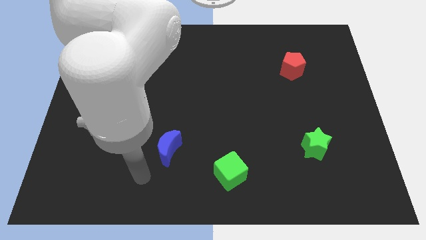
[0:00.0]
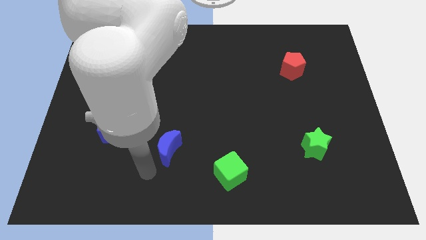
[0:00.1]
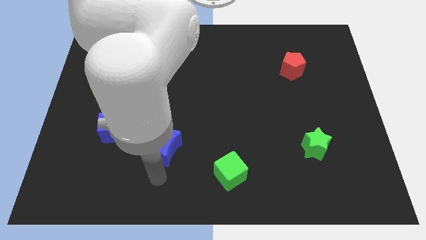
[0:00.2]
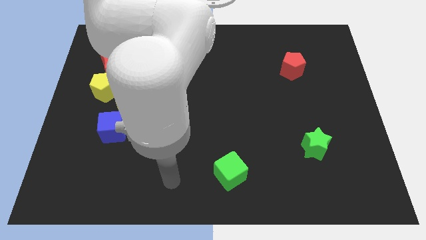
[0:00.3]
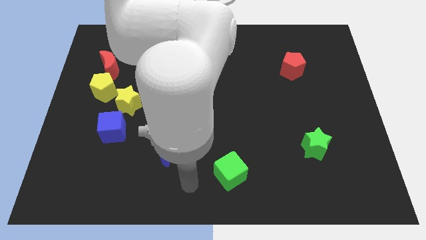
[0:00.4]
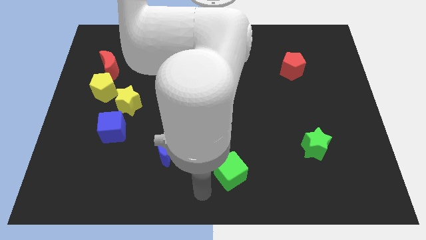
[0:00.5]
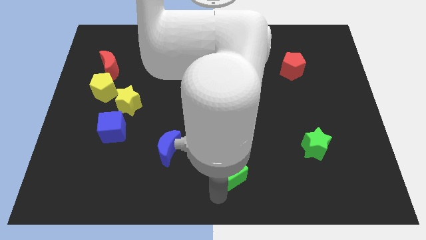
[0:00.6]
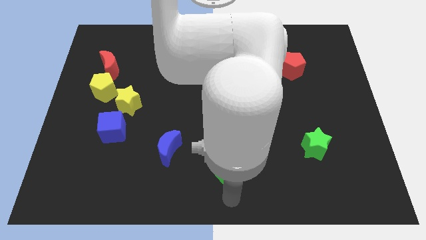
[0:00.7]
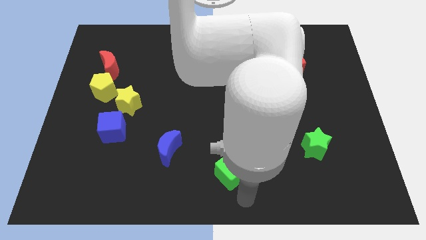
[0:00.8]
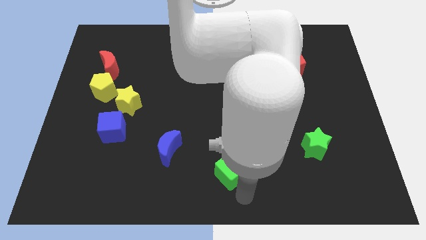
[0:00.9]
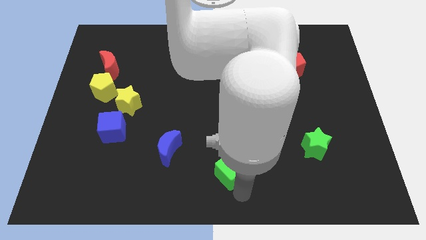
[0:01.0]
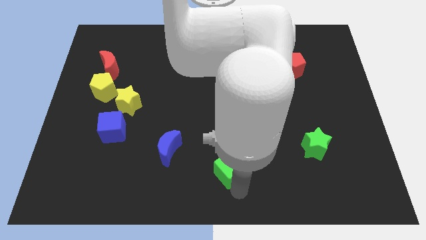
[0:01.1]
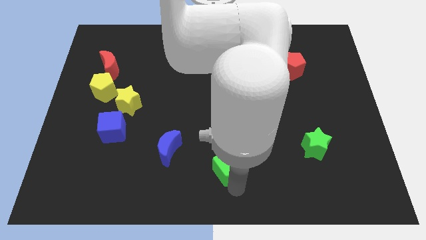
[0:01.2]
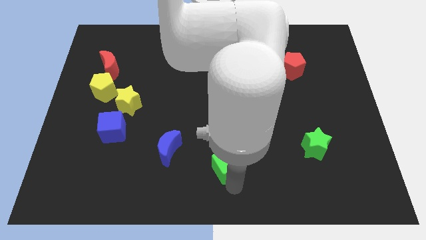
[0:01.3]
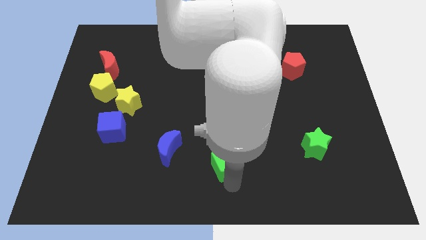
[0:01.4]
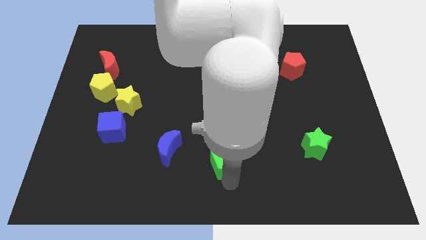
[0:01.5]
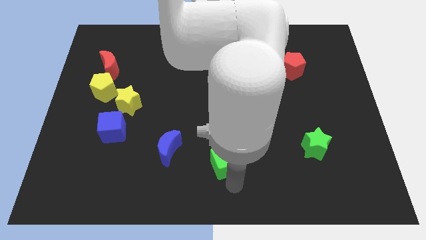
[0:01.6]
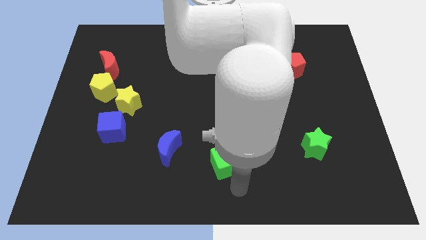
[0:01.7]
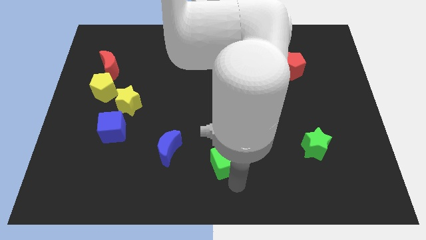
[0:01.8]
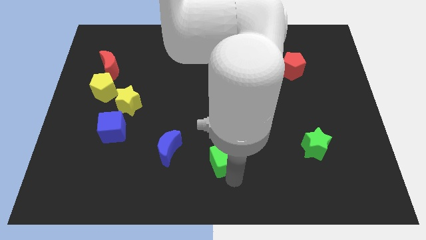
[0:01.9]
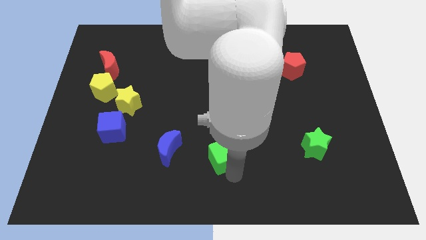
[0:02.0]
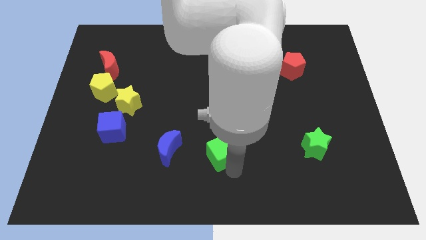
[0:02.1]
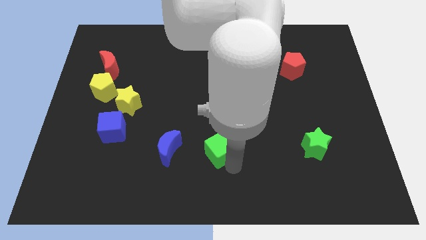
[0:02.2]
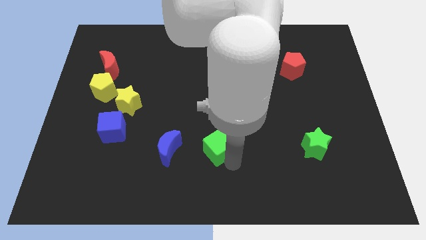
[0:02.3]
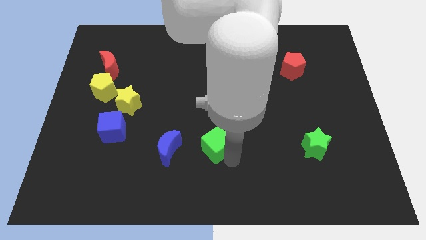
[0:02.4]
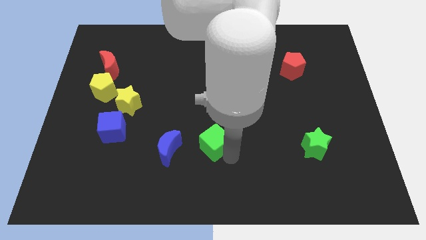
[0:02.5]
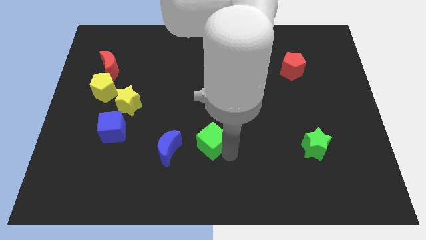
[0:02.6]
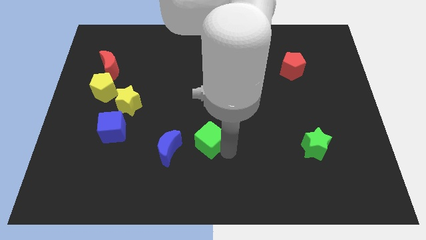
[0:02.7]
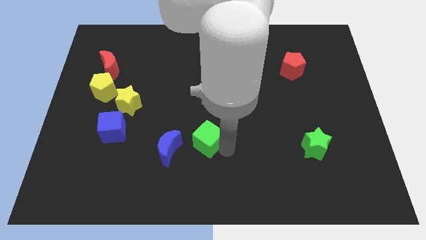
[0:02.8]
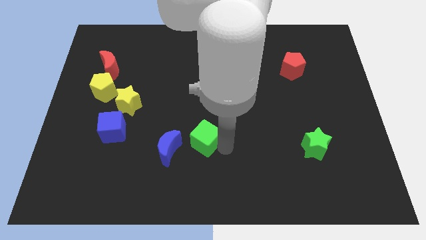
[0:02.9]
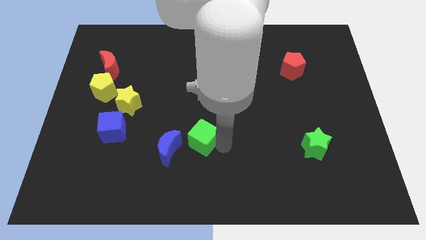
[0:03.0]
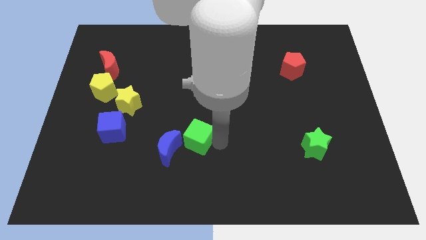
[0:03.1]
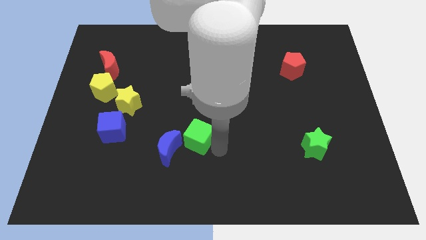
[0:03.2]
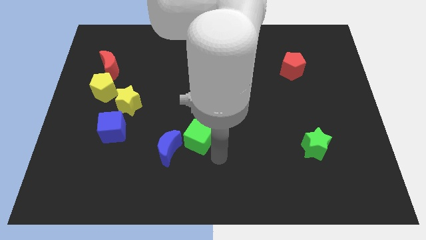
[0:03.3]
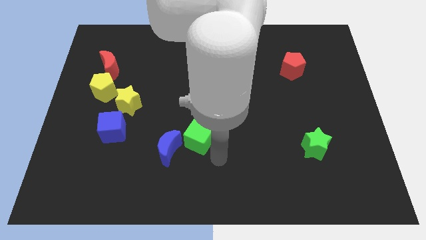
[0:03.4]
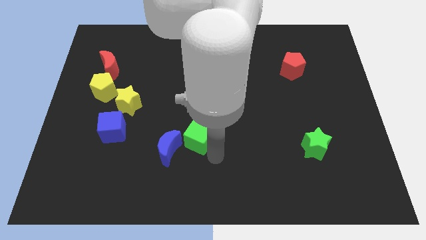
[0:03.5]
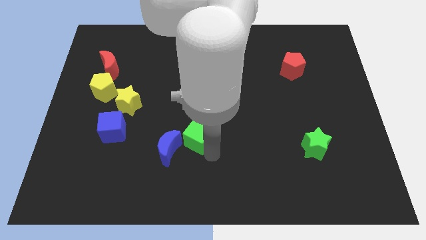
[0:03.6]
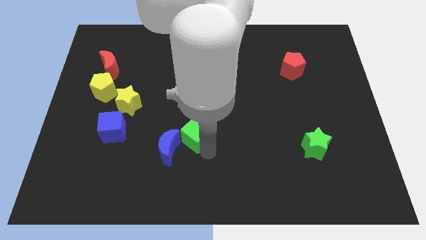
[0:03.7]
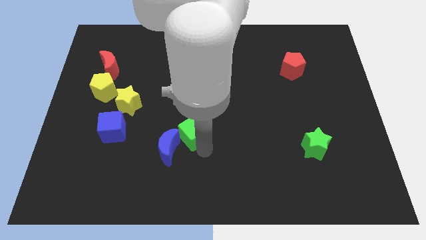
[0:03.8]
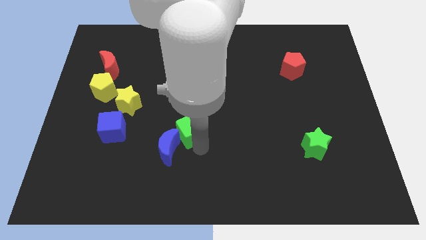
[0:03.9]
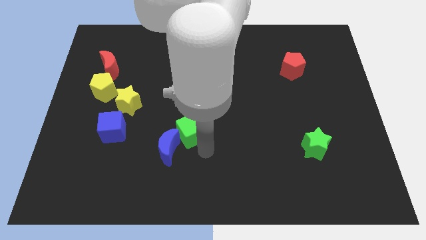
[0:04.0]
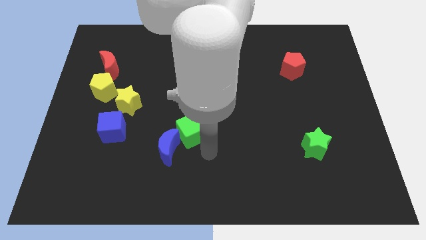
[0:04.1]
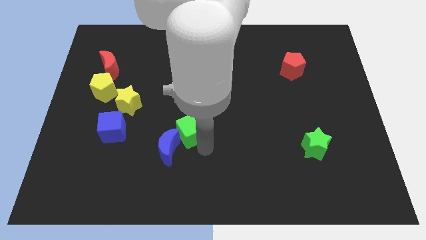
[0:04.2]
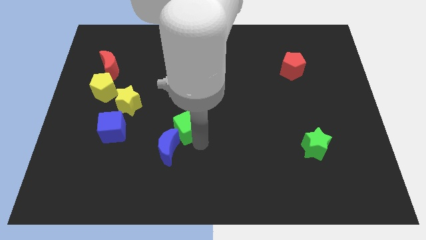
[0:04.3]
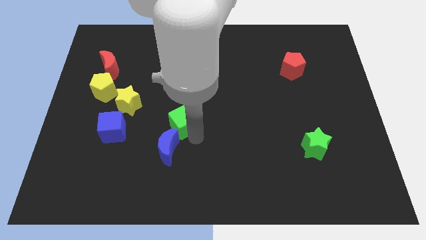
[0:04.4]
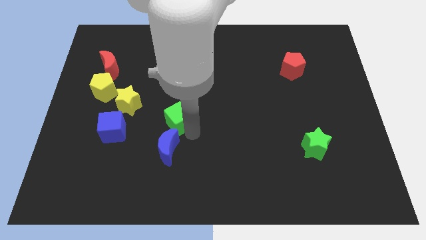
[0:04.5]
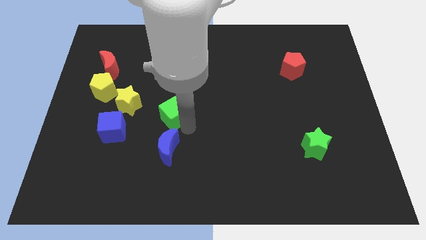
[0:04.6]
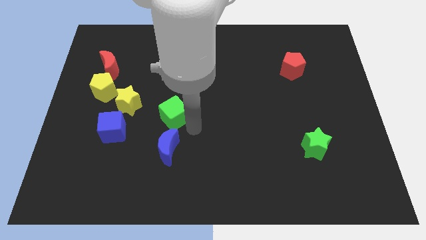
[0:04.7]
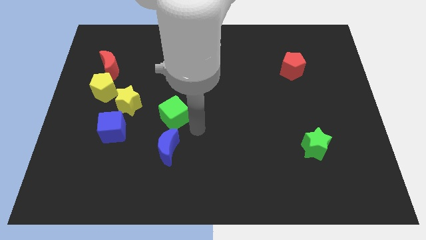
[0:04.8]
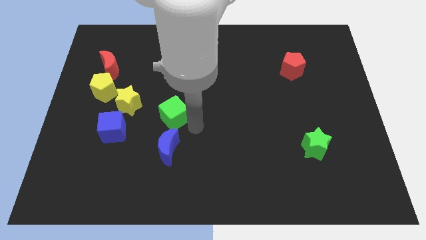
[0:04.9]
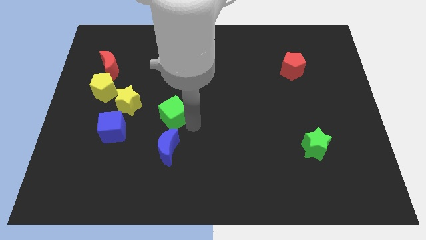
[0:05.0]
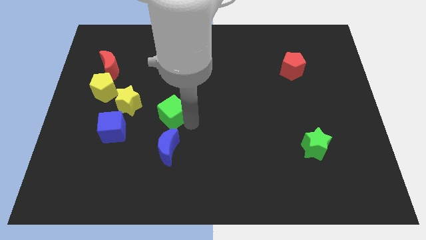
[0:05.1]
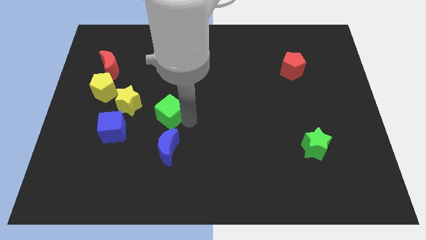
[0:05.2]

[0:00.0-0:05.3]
push the green cube upwards and left diagonally

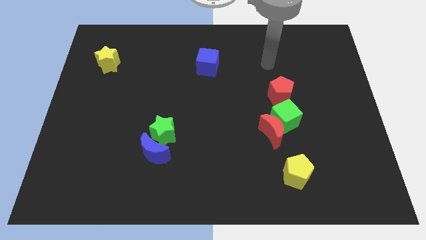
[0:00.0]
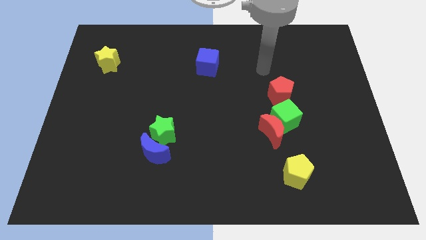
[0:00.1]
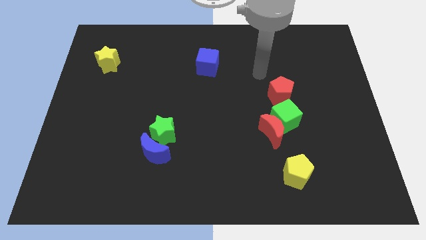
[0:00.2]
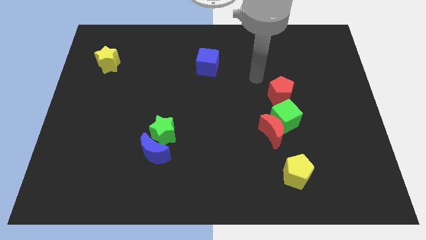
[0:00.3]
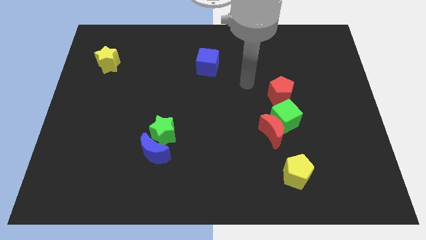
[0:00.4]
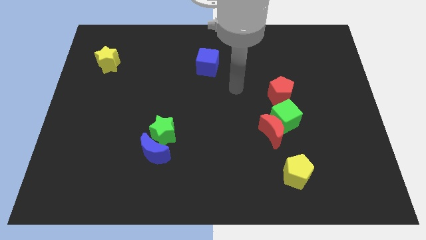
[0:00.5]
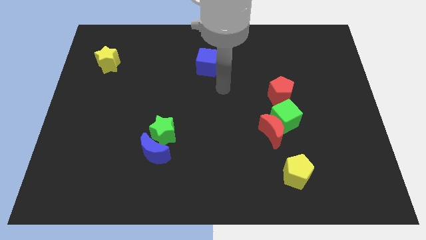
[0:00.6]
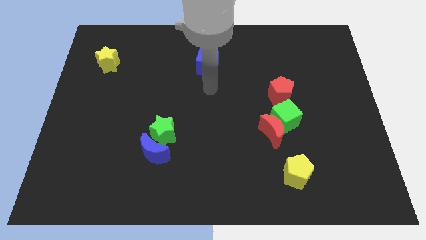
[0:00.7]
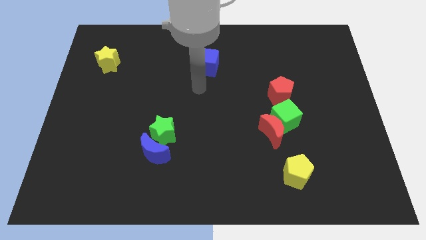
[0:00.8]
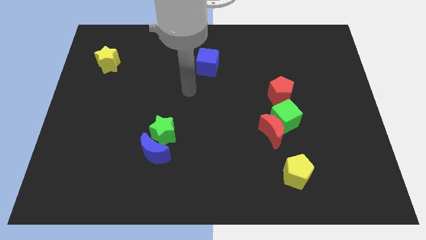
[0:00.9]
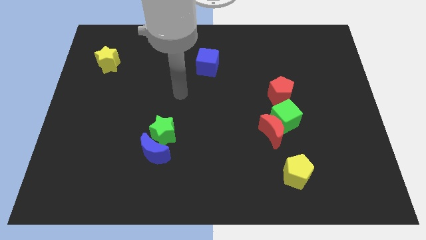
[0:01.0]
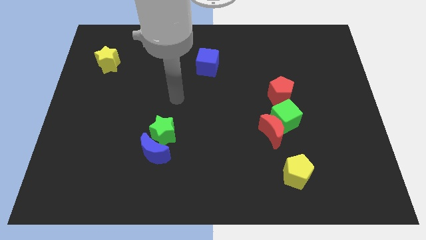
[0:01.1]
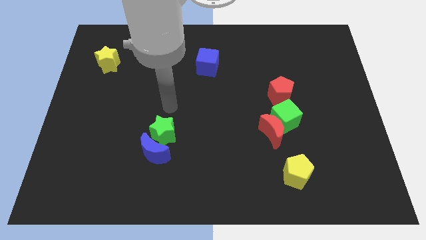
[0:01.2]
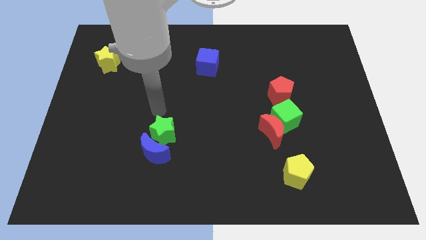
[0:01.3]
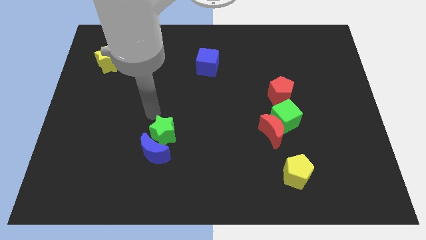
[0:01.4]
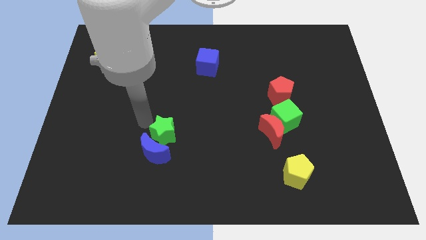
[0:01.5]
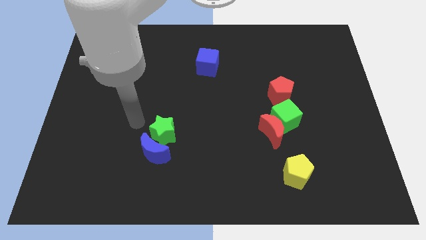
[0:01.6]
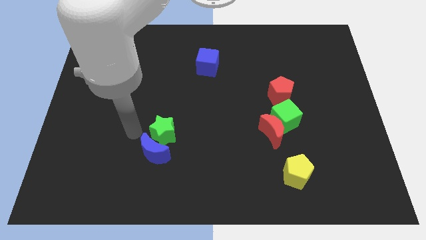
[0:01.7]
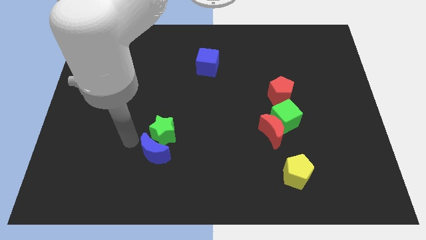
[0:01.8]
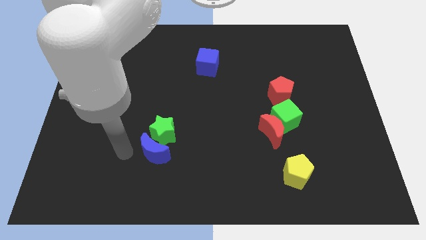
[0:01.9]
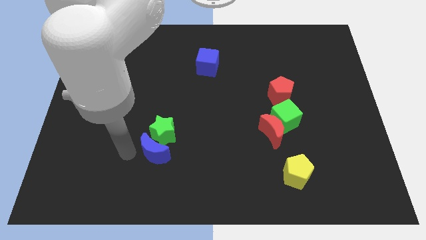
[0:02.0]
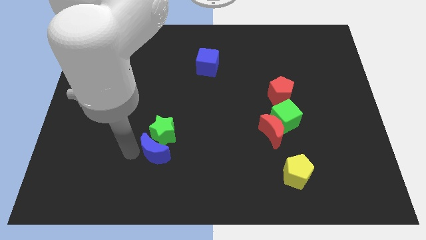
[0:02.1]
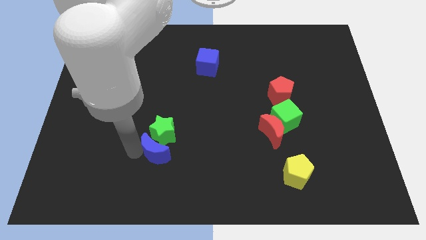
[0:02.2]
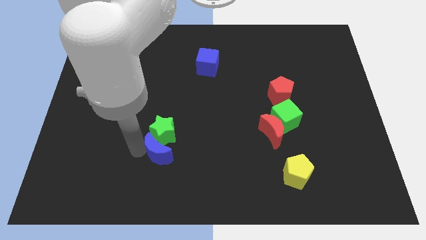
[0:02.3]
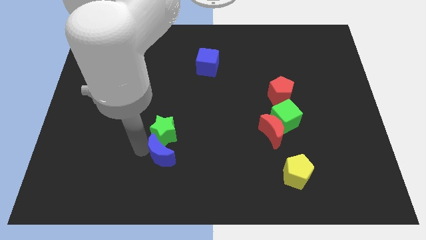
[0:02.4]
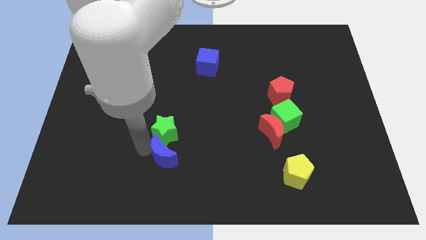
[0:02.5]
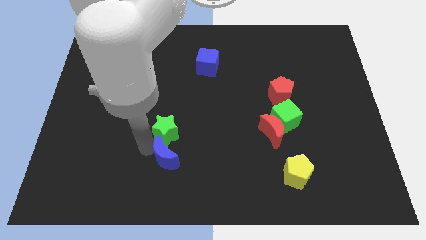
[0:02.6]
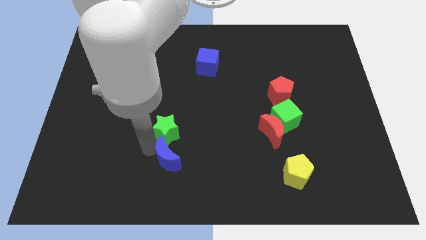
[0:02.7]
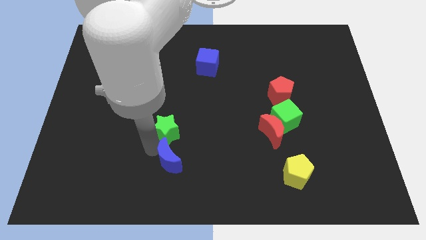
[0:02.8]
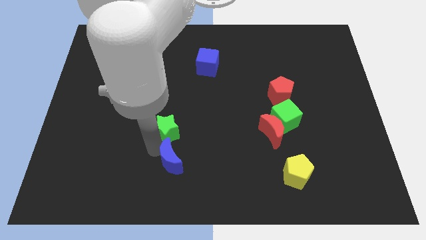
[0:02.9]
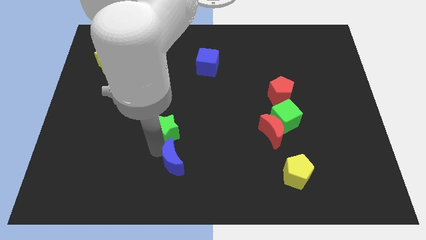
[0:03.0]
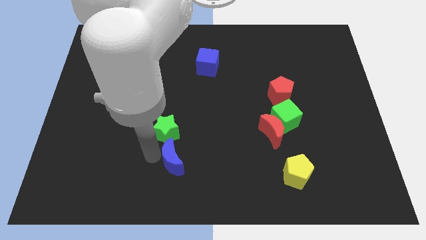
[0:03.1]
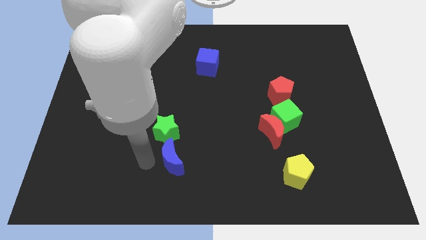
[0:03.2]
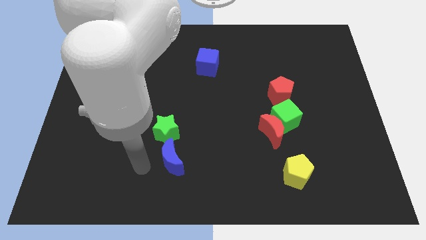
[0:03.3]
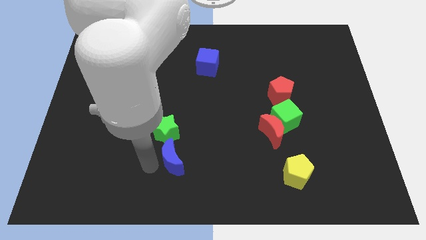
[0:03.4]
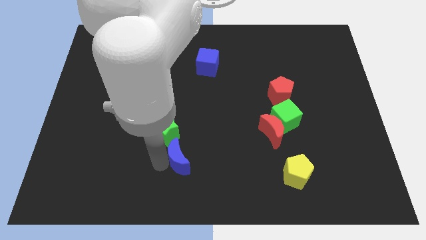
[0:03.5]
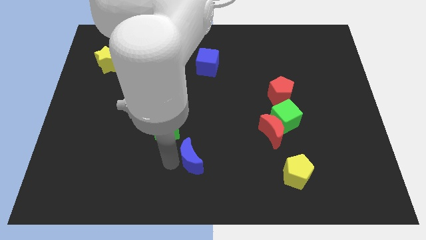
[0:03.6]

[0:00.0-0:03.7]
push the blue moon slightly to the right
